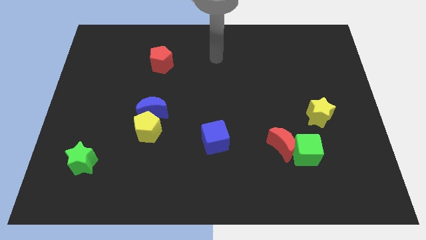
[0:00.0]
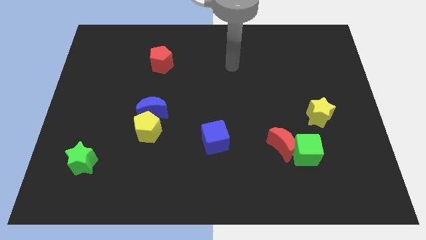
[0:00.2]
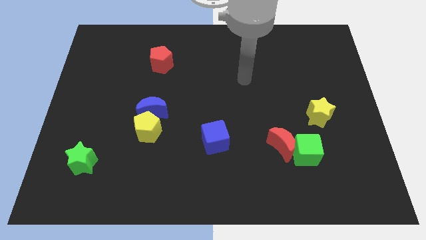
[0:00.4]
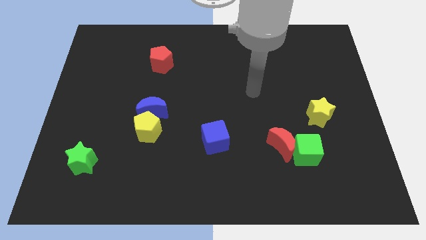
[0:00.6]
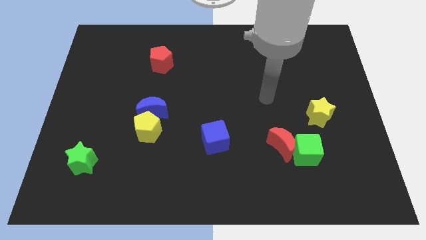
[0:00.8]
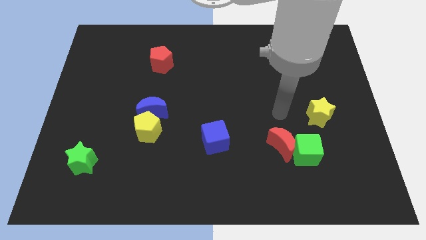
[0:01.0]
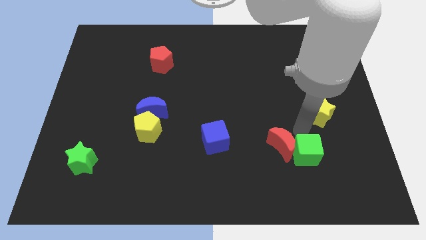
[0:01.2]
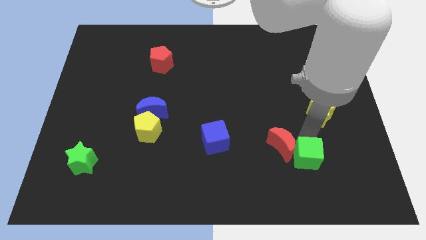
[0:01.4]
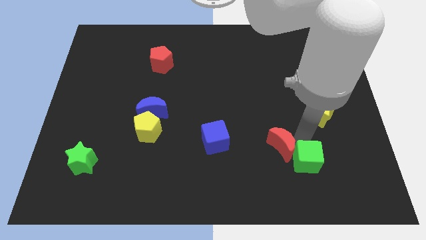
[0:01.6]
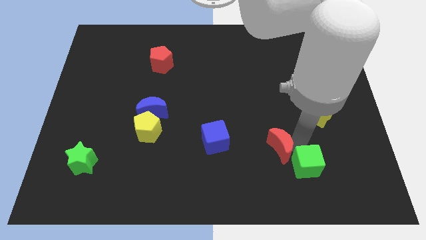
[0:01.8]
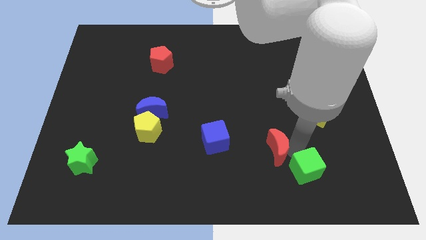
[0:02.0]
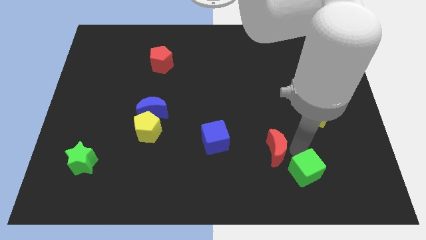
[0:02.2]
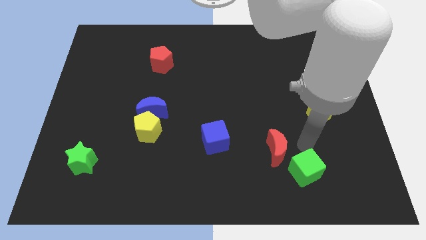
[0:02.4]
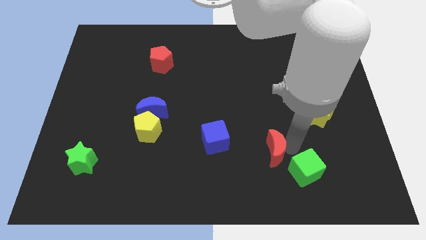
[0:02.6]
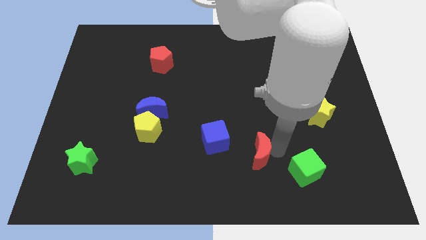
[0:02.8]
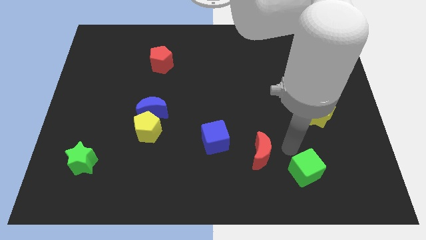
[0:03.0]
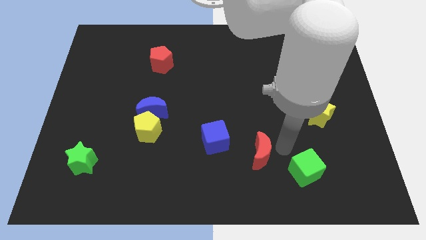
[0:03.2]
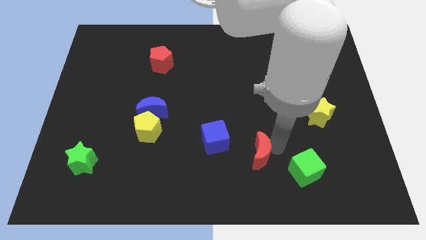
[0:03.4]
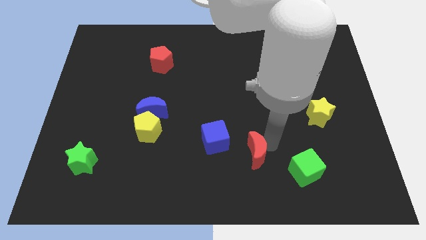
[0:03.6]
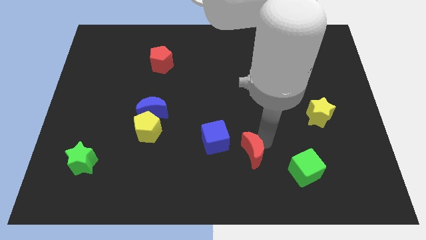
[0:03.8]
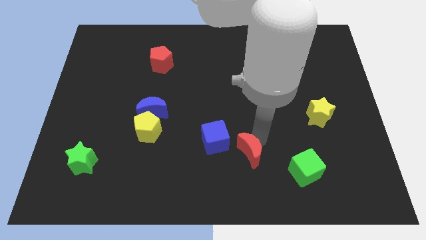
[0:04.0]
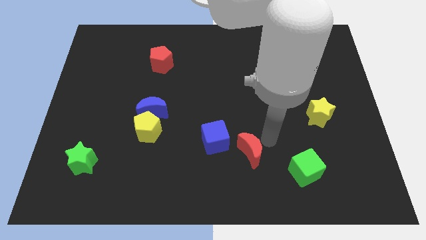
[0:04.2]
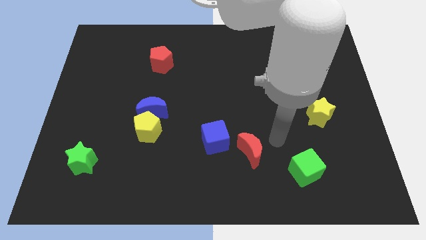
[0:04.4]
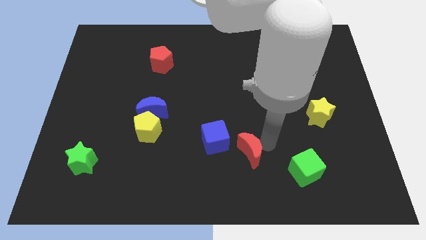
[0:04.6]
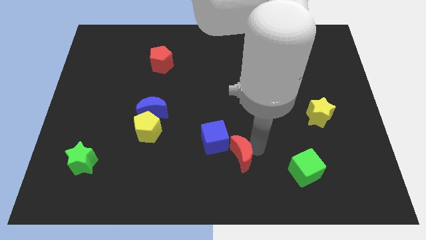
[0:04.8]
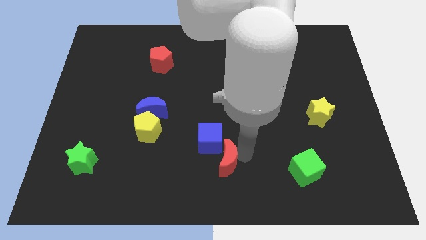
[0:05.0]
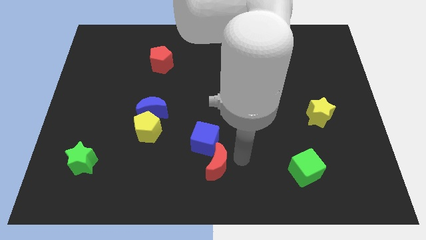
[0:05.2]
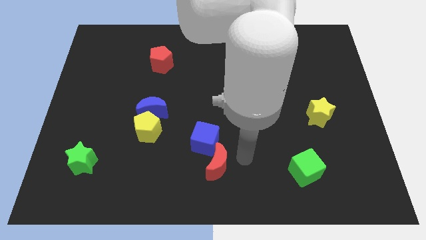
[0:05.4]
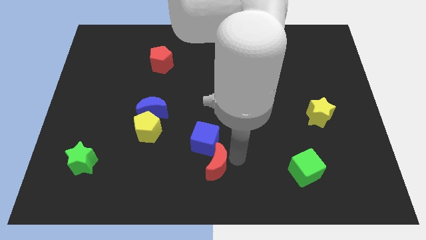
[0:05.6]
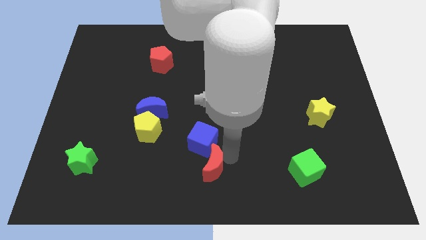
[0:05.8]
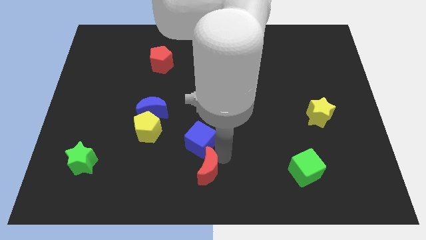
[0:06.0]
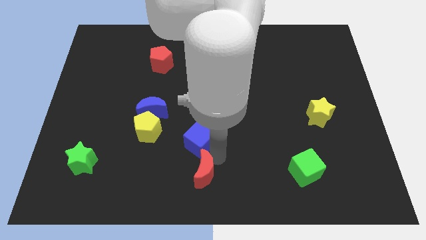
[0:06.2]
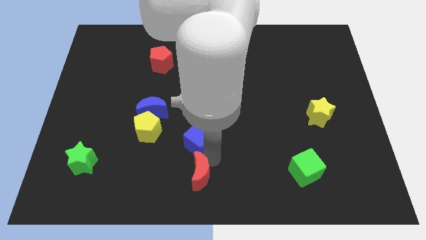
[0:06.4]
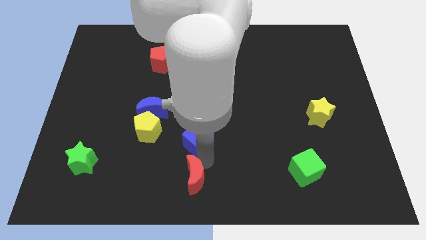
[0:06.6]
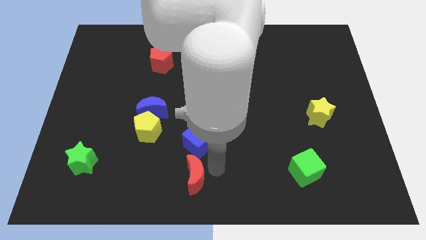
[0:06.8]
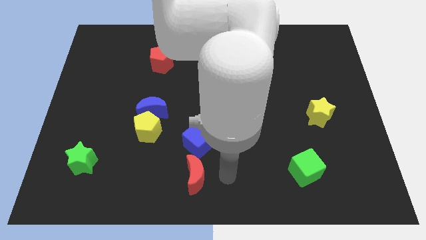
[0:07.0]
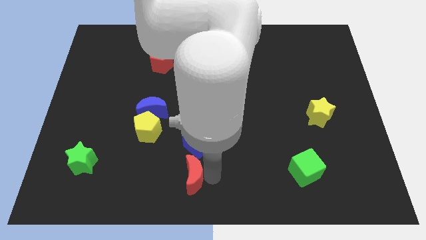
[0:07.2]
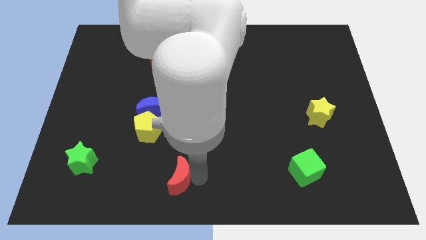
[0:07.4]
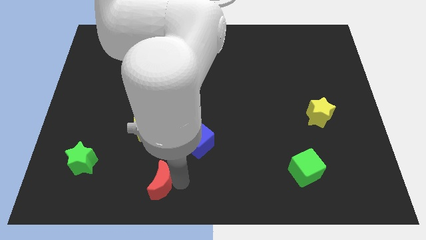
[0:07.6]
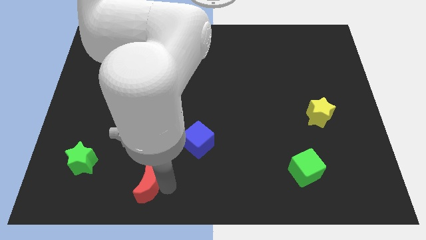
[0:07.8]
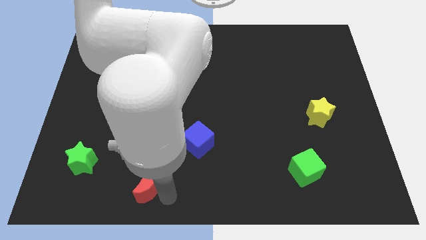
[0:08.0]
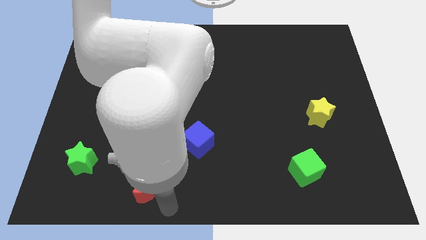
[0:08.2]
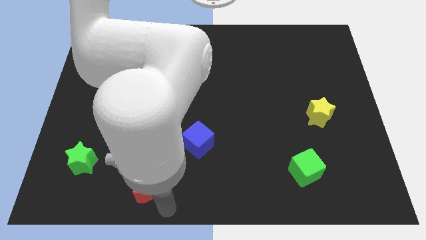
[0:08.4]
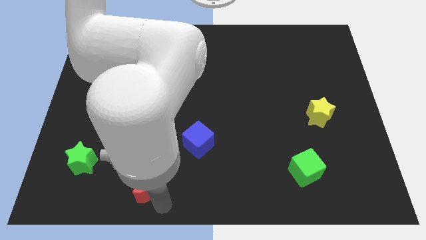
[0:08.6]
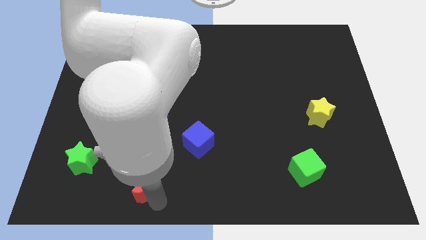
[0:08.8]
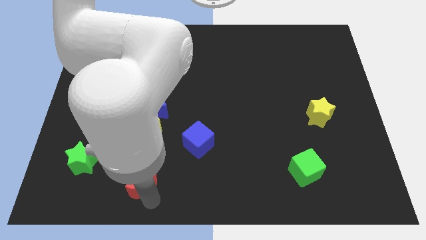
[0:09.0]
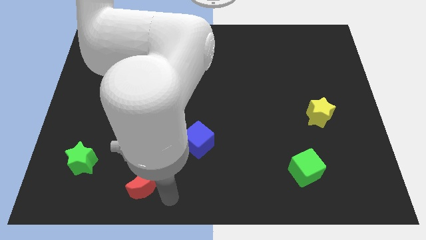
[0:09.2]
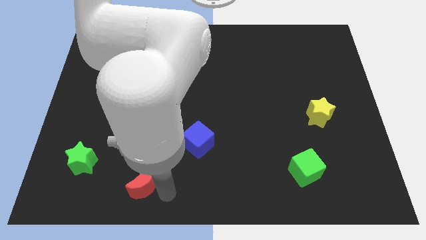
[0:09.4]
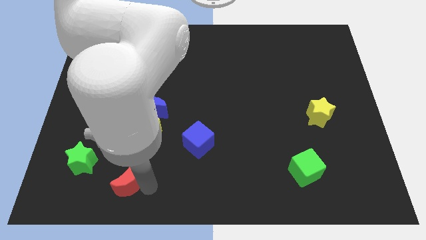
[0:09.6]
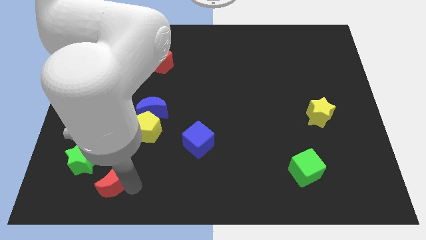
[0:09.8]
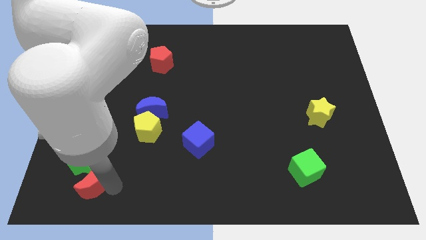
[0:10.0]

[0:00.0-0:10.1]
slide the red moon next to the green star

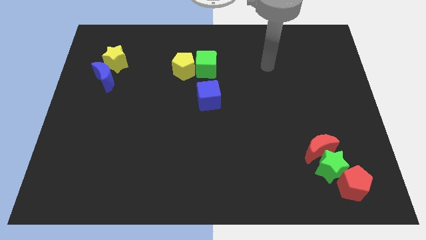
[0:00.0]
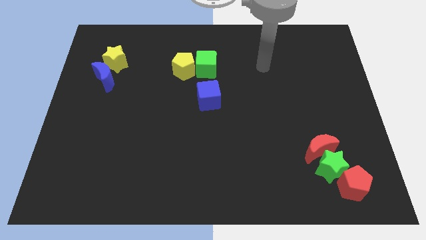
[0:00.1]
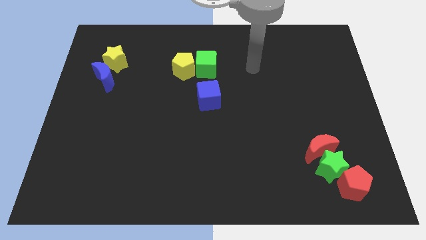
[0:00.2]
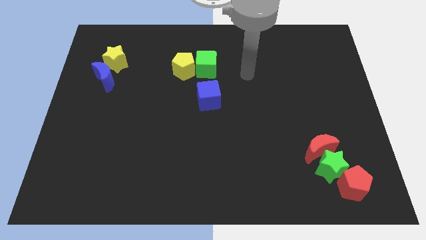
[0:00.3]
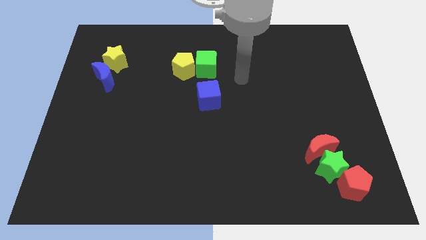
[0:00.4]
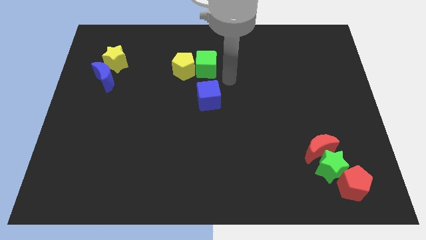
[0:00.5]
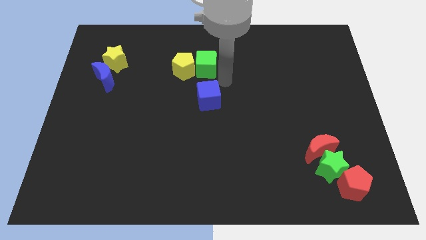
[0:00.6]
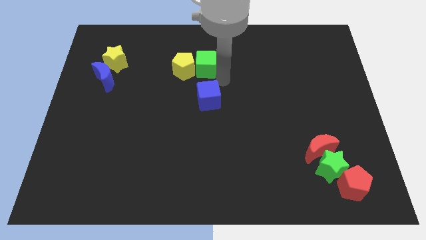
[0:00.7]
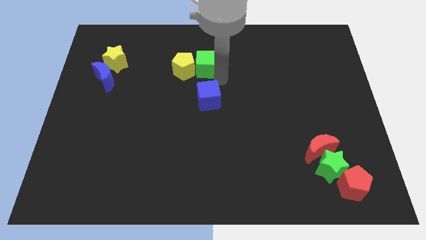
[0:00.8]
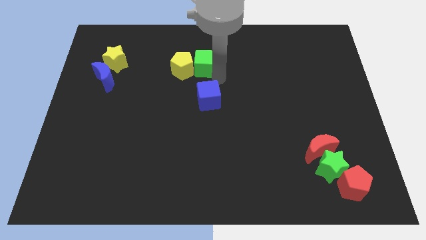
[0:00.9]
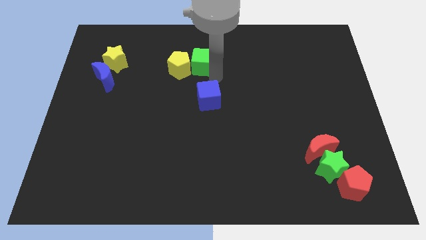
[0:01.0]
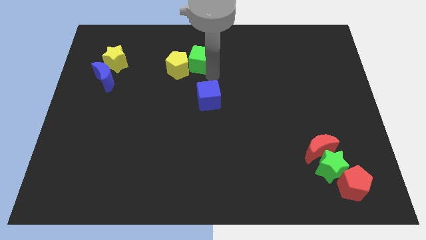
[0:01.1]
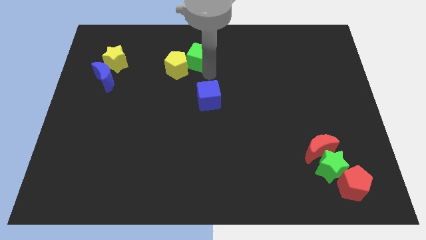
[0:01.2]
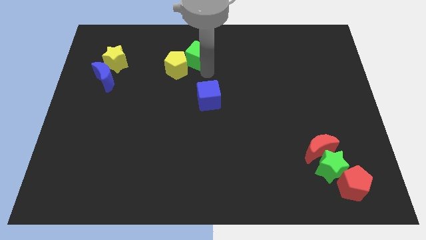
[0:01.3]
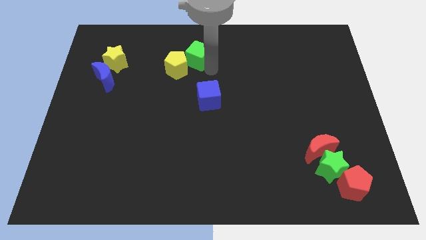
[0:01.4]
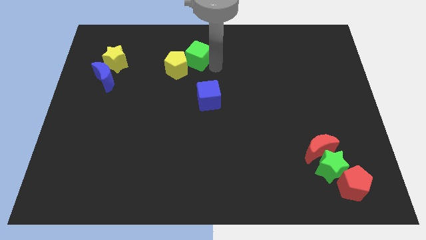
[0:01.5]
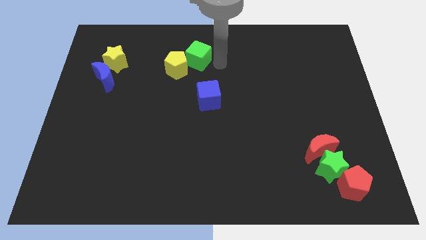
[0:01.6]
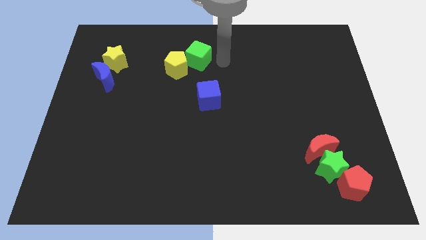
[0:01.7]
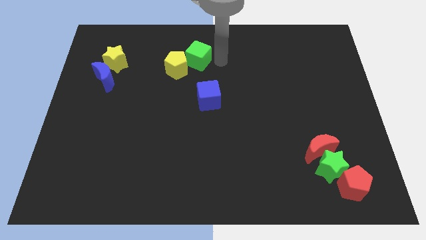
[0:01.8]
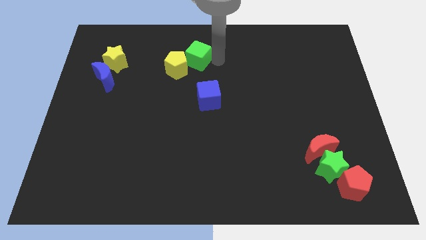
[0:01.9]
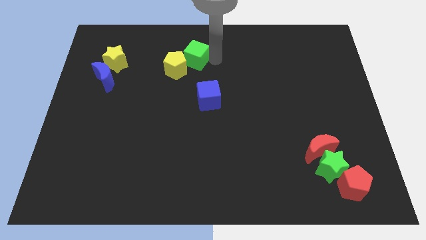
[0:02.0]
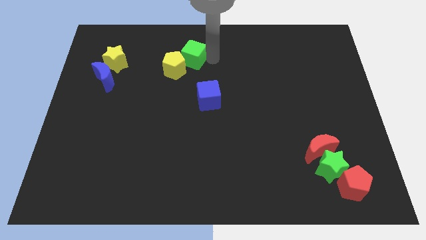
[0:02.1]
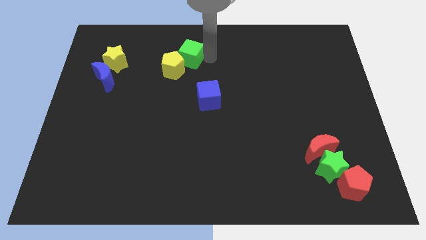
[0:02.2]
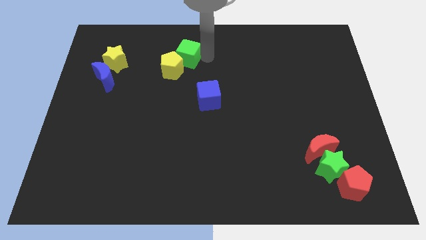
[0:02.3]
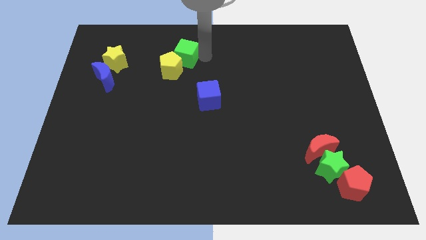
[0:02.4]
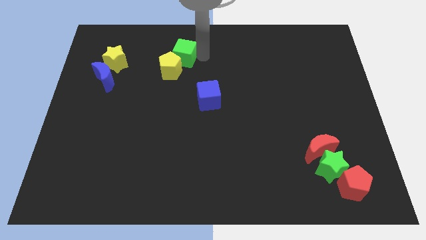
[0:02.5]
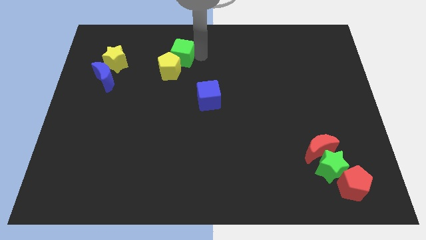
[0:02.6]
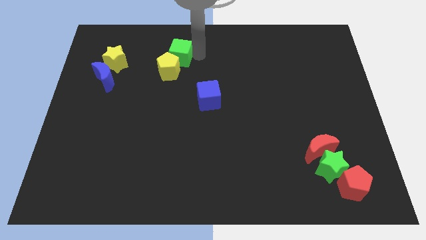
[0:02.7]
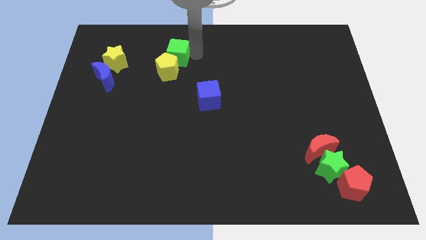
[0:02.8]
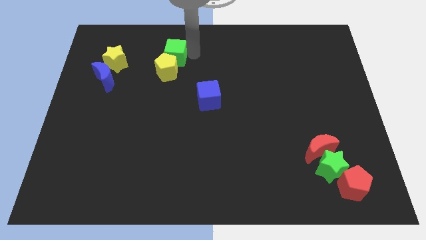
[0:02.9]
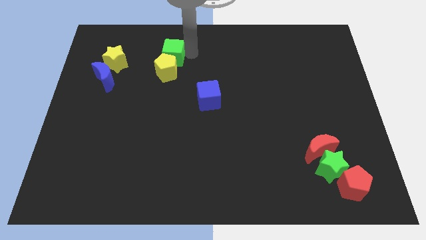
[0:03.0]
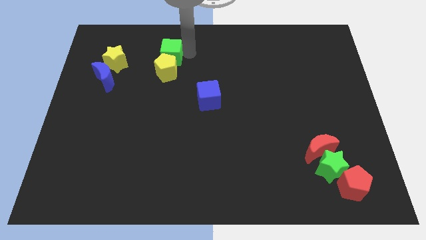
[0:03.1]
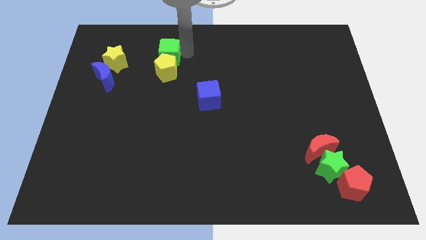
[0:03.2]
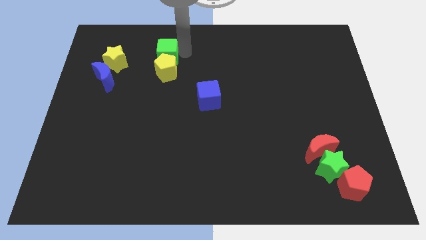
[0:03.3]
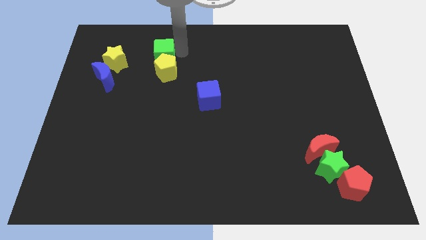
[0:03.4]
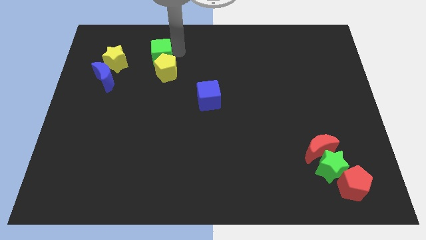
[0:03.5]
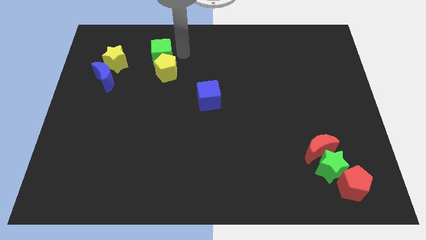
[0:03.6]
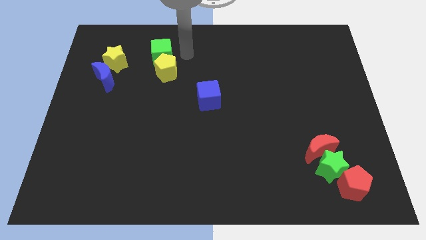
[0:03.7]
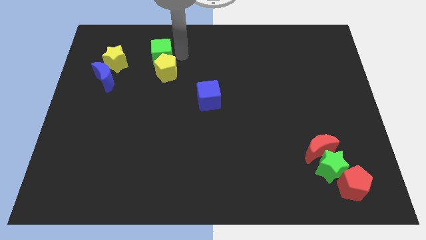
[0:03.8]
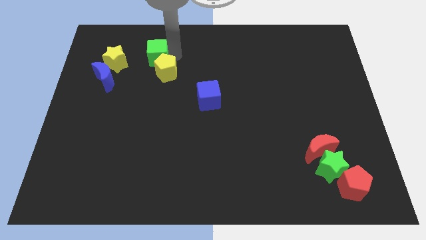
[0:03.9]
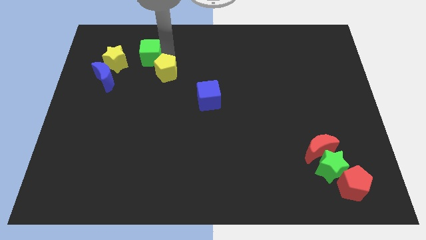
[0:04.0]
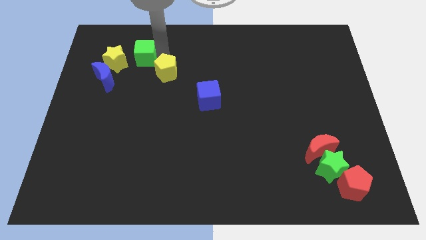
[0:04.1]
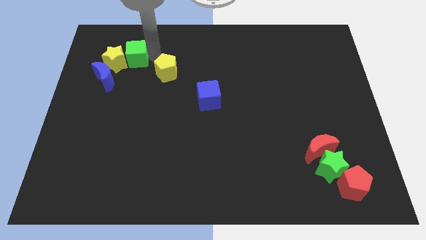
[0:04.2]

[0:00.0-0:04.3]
push the green cube towards the yellow star
